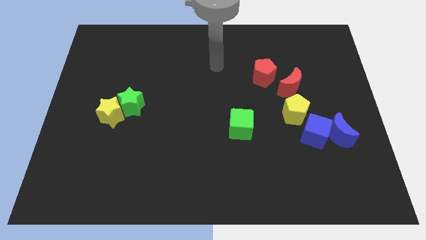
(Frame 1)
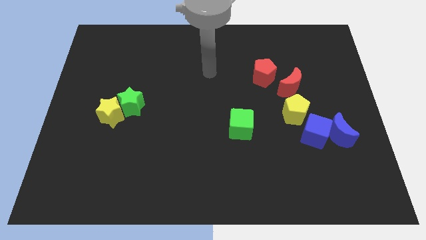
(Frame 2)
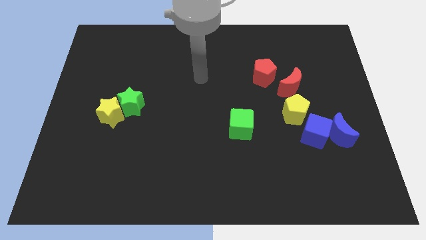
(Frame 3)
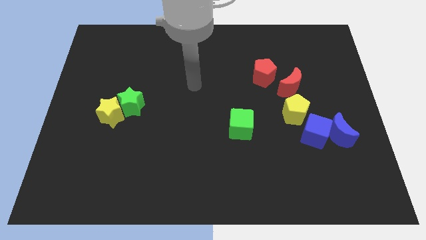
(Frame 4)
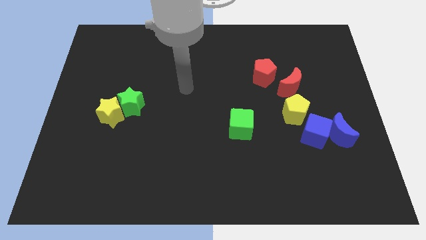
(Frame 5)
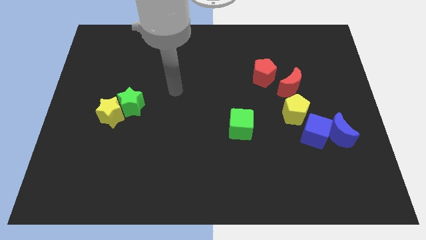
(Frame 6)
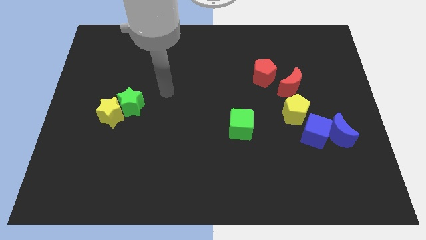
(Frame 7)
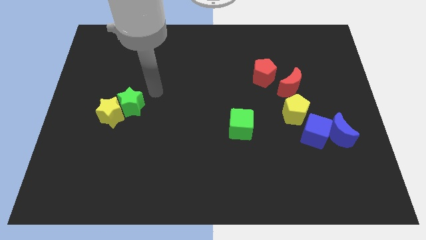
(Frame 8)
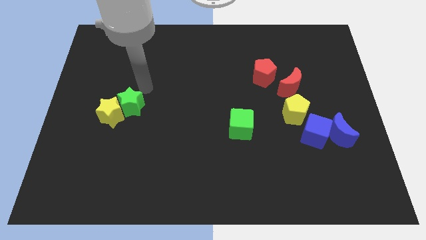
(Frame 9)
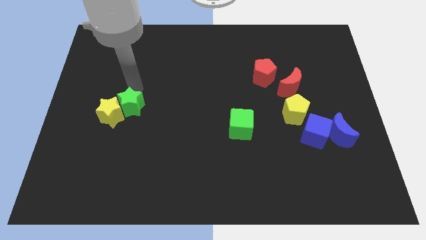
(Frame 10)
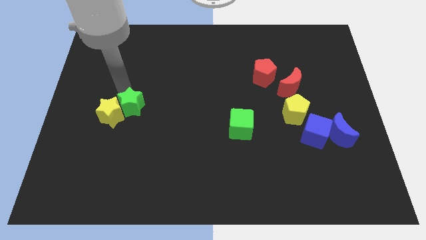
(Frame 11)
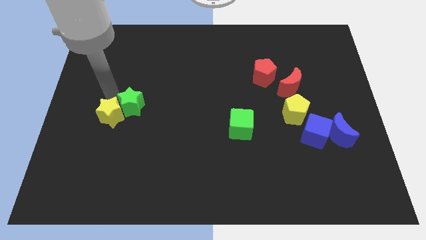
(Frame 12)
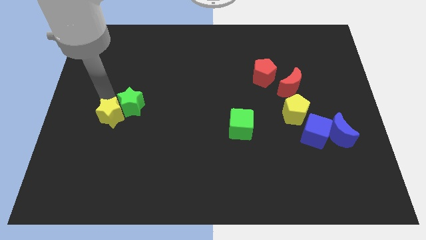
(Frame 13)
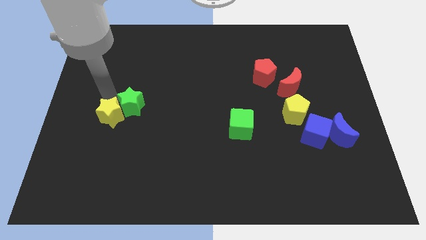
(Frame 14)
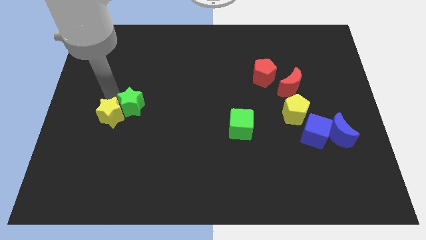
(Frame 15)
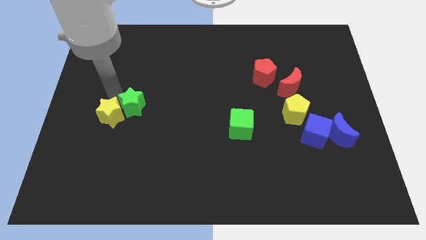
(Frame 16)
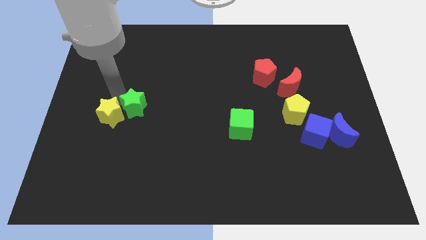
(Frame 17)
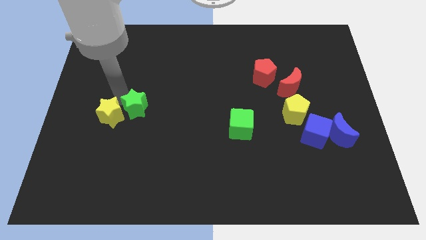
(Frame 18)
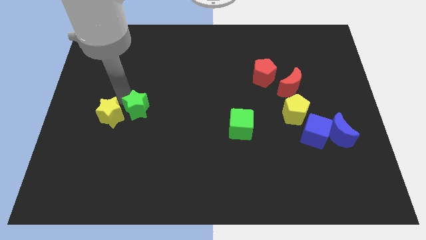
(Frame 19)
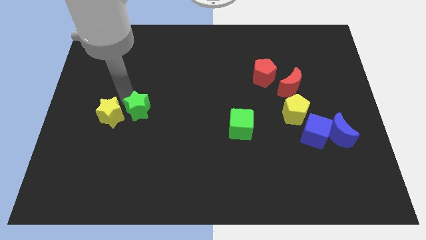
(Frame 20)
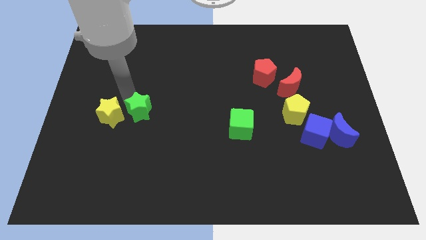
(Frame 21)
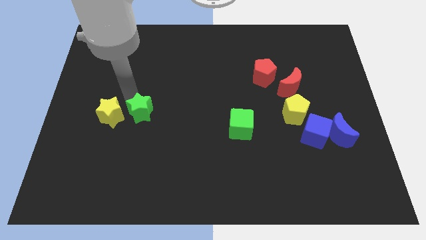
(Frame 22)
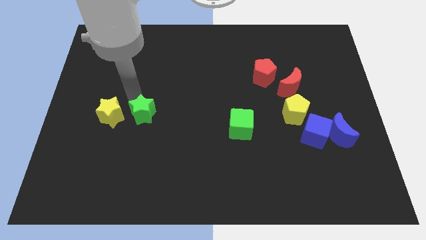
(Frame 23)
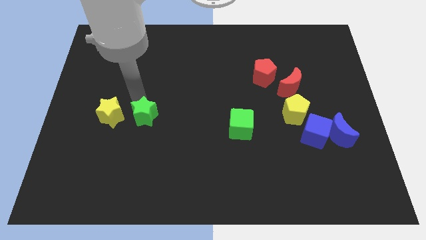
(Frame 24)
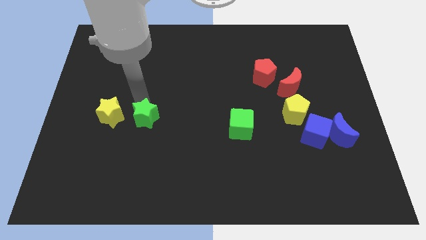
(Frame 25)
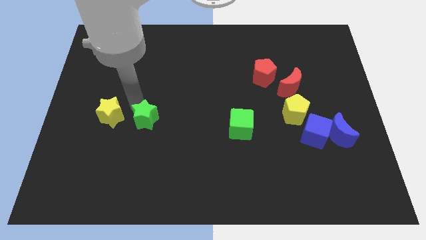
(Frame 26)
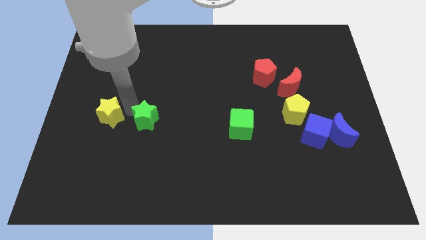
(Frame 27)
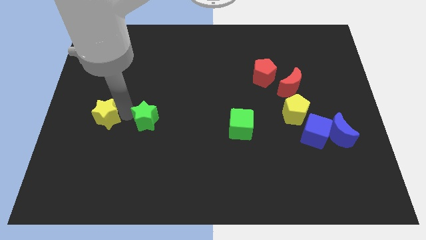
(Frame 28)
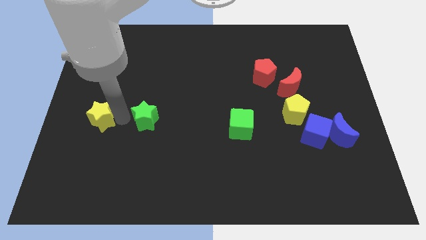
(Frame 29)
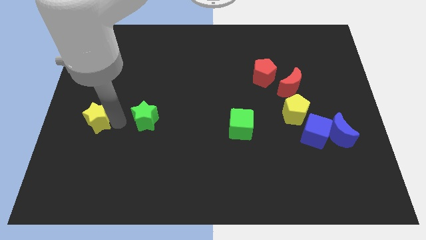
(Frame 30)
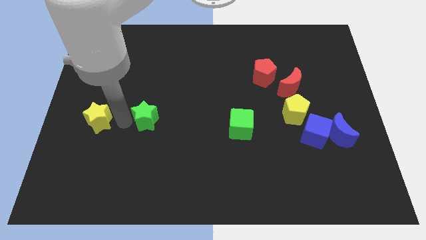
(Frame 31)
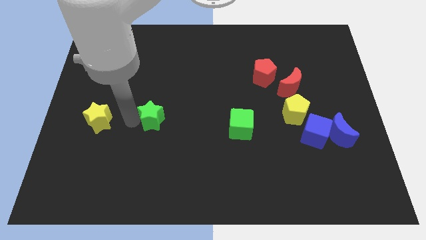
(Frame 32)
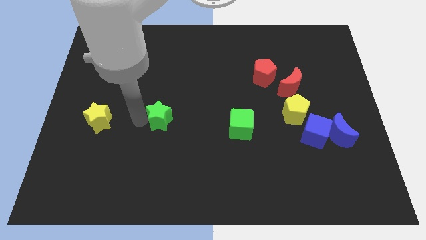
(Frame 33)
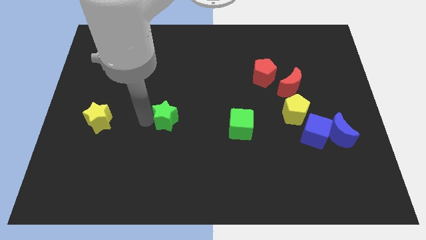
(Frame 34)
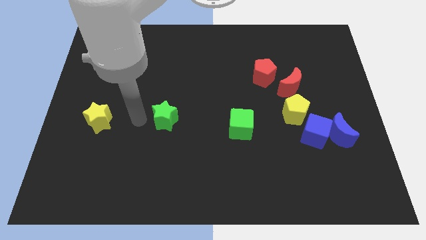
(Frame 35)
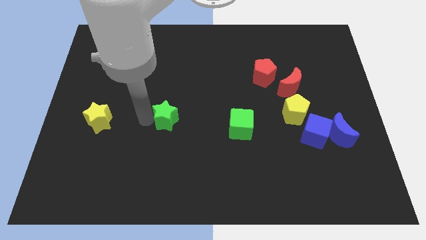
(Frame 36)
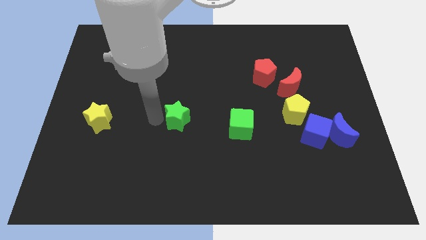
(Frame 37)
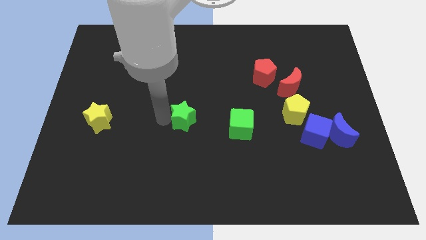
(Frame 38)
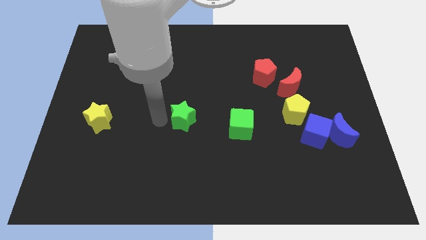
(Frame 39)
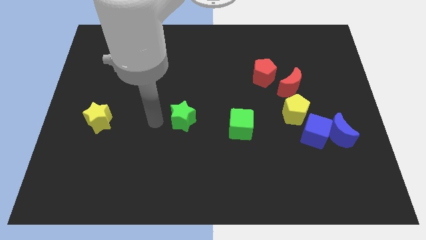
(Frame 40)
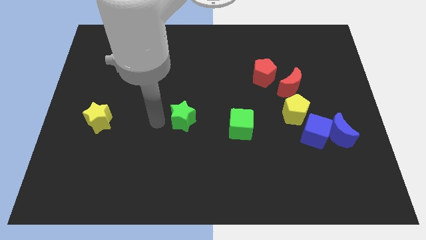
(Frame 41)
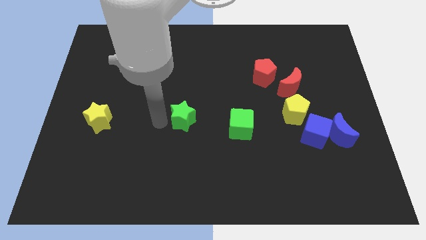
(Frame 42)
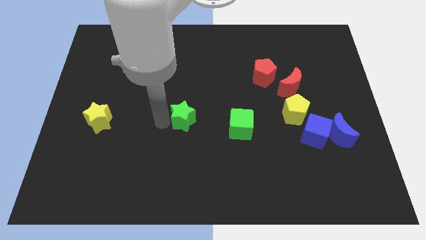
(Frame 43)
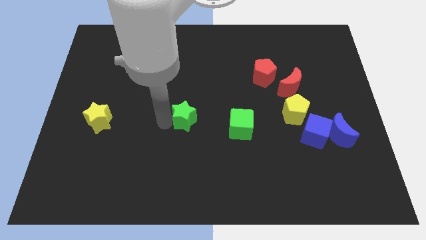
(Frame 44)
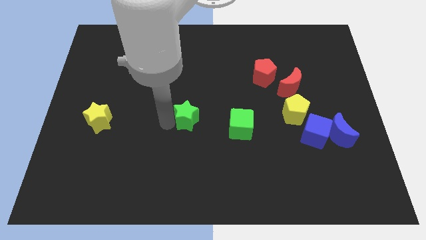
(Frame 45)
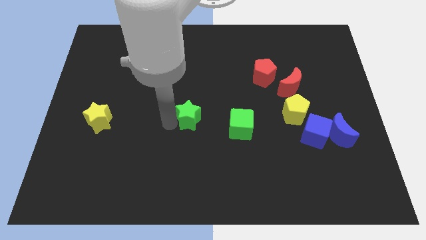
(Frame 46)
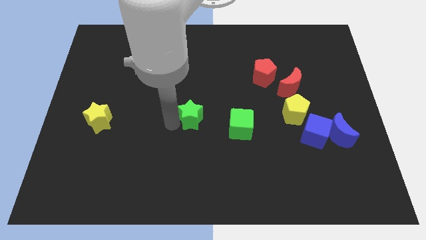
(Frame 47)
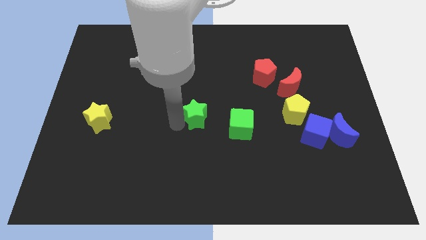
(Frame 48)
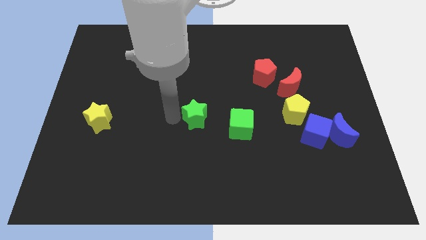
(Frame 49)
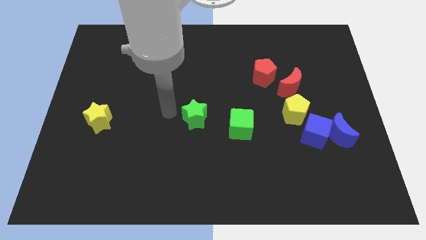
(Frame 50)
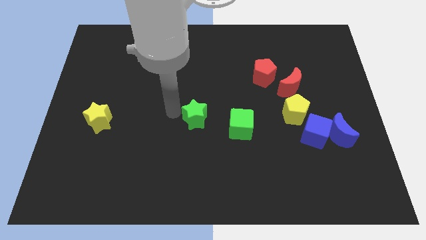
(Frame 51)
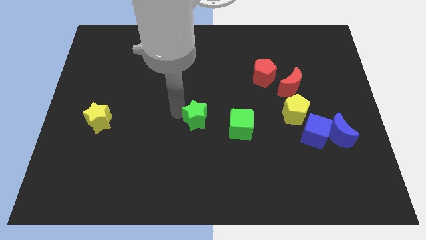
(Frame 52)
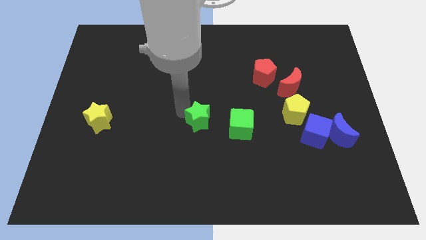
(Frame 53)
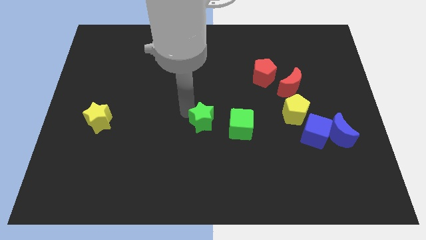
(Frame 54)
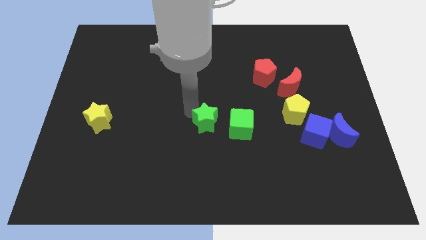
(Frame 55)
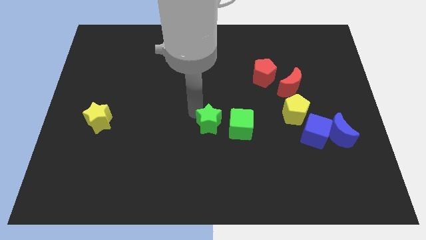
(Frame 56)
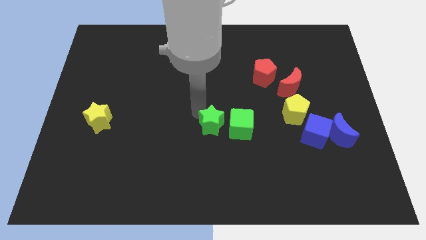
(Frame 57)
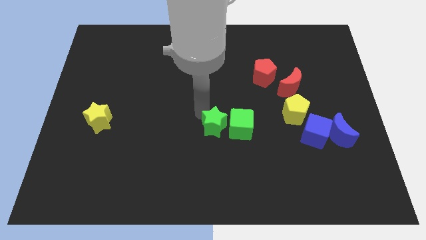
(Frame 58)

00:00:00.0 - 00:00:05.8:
slide the green star next to the green cube

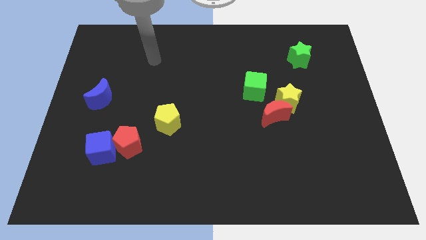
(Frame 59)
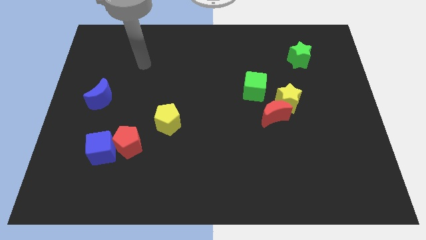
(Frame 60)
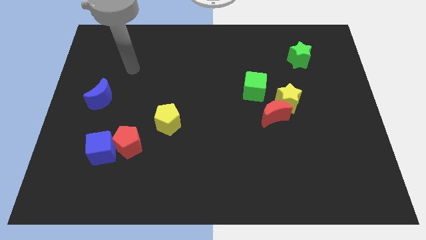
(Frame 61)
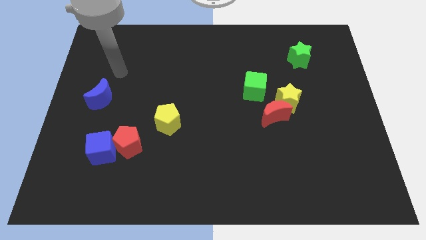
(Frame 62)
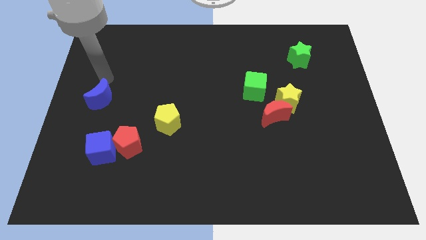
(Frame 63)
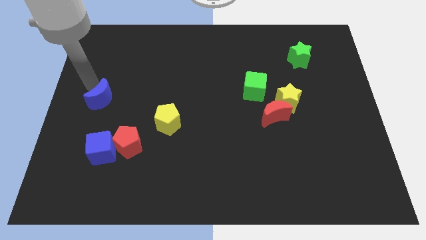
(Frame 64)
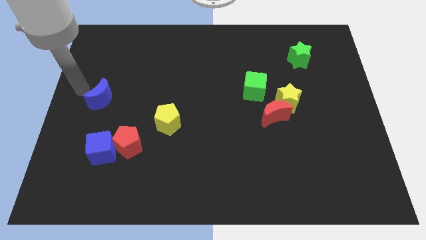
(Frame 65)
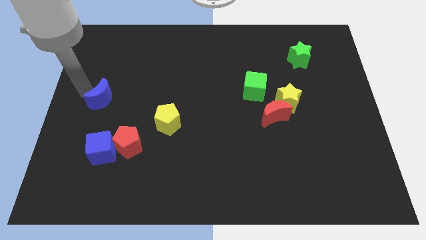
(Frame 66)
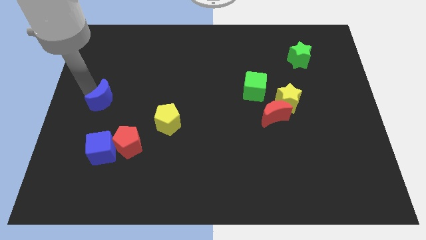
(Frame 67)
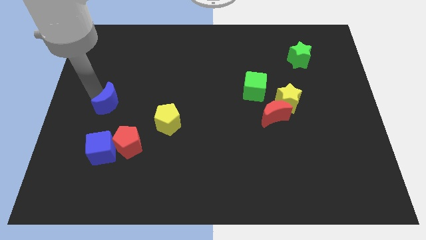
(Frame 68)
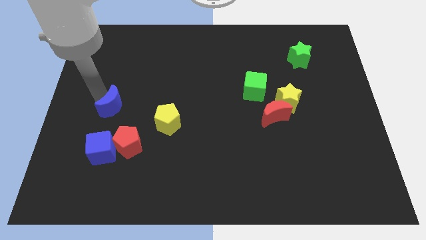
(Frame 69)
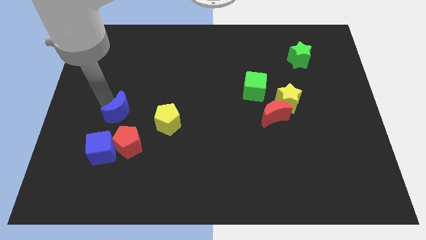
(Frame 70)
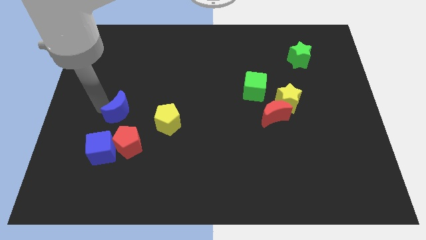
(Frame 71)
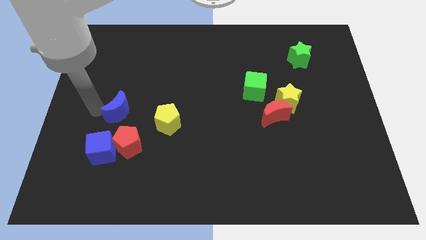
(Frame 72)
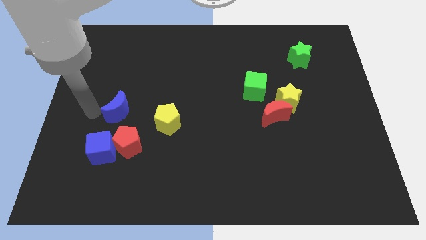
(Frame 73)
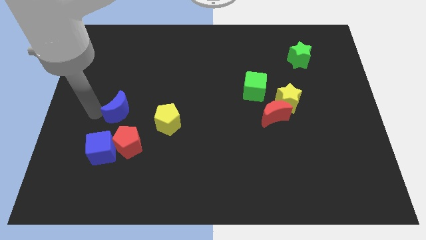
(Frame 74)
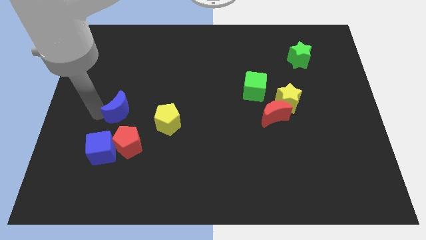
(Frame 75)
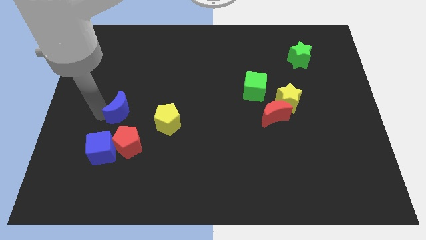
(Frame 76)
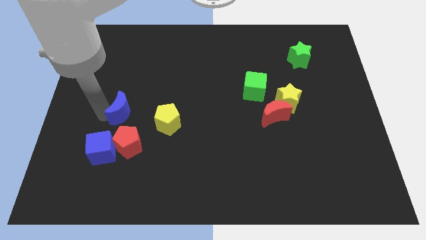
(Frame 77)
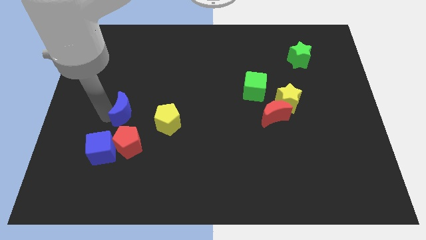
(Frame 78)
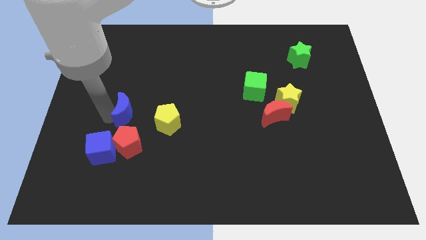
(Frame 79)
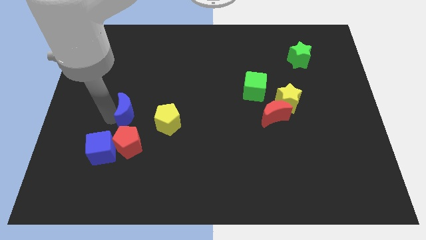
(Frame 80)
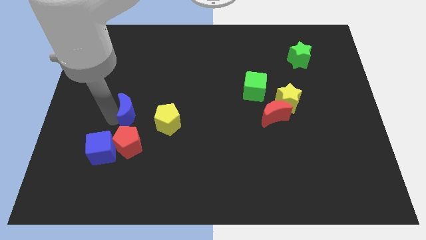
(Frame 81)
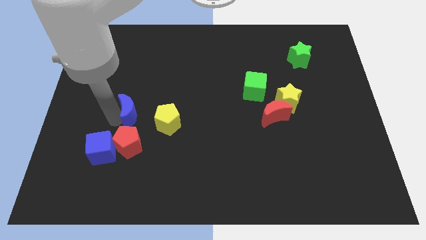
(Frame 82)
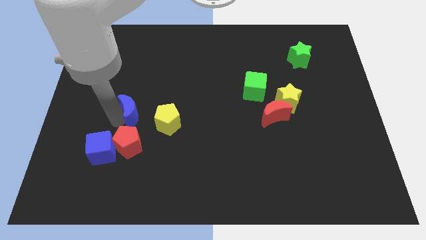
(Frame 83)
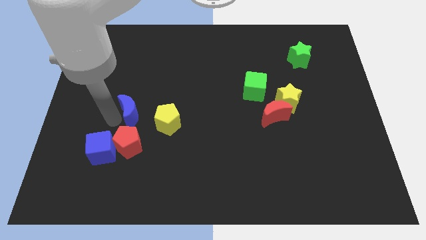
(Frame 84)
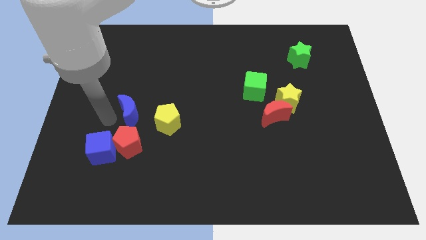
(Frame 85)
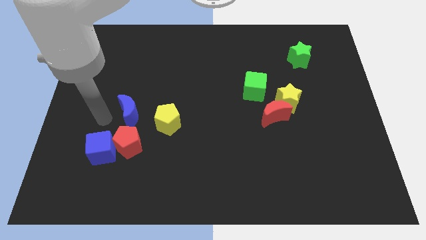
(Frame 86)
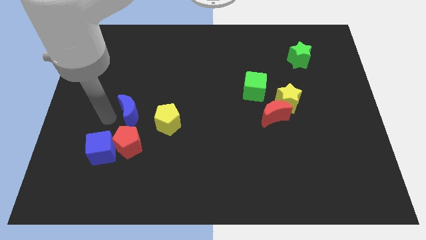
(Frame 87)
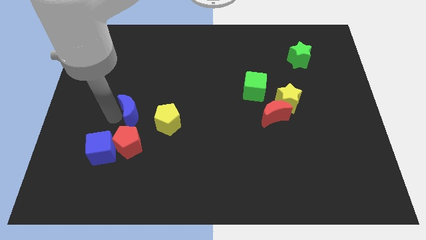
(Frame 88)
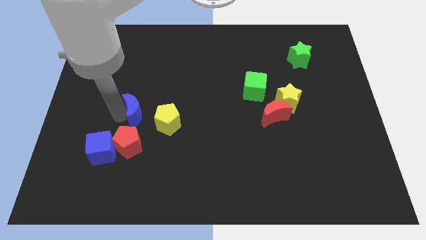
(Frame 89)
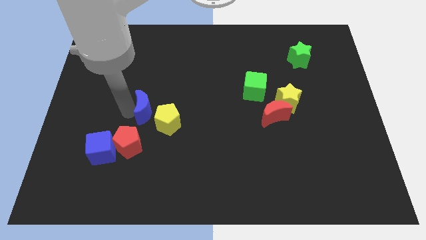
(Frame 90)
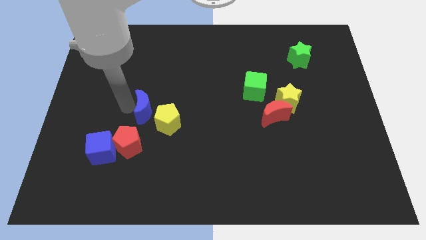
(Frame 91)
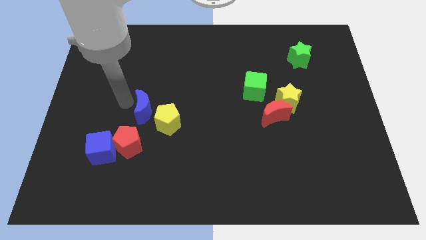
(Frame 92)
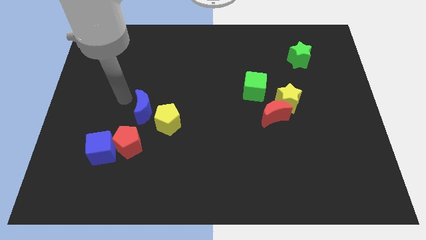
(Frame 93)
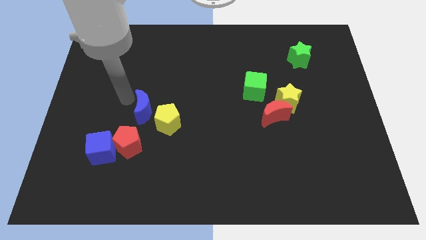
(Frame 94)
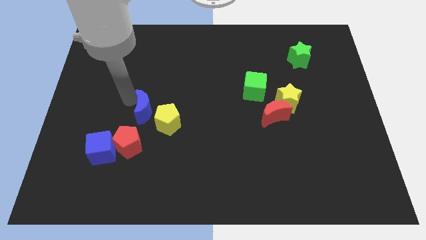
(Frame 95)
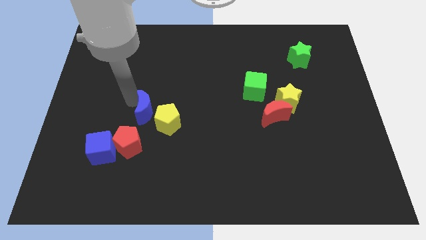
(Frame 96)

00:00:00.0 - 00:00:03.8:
move the blue moon close to the yellow pentagon
